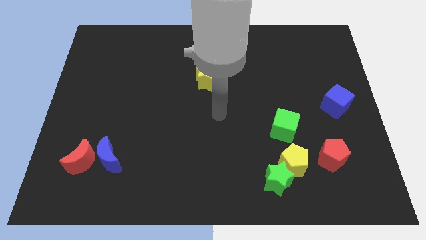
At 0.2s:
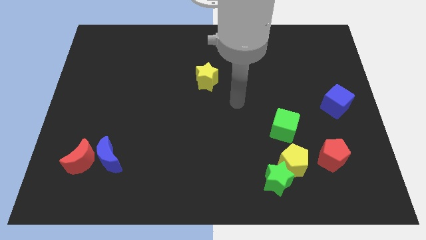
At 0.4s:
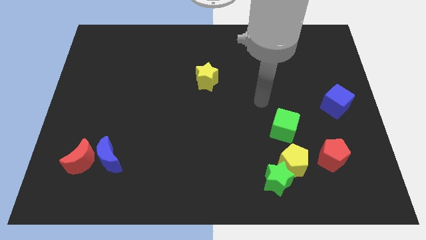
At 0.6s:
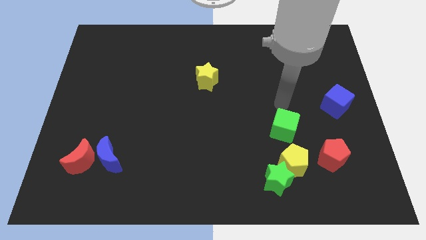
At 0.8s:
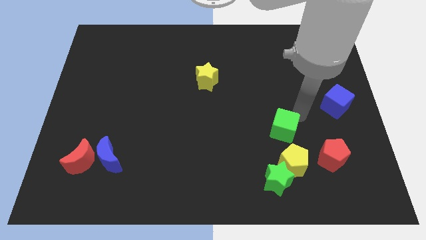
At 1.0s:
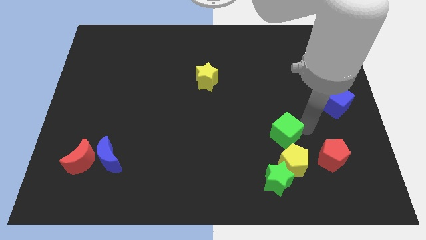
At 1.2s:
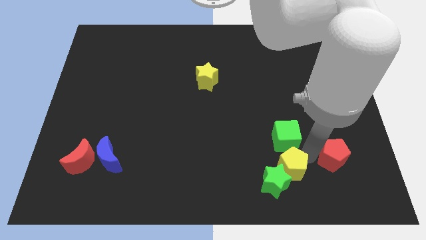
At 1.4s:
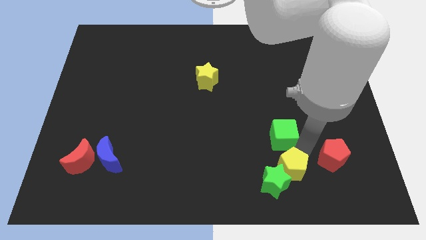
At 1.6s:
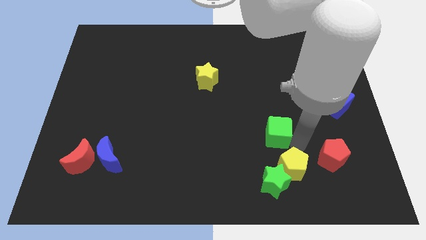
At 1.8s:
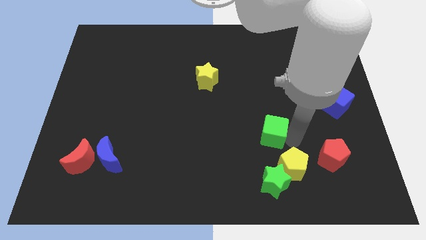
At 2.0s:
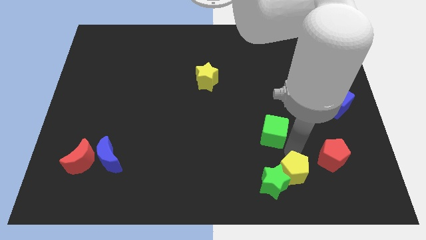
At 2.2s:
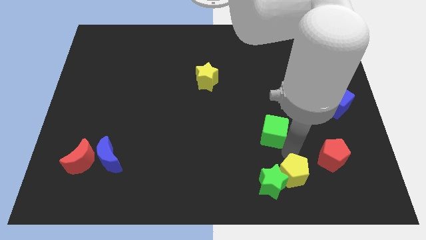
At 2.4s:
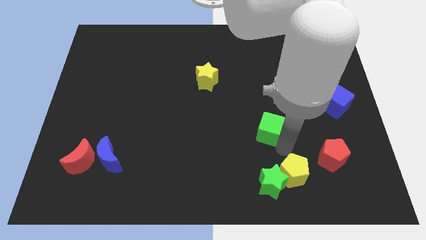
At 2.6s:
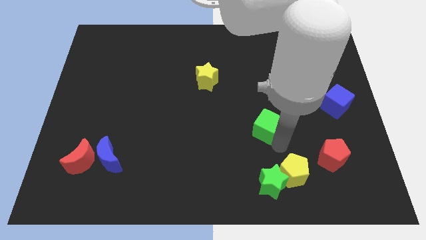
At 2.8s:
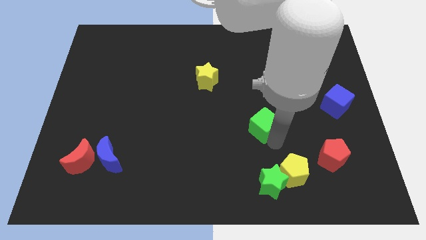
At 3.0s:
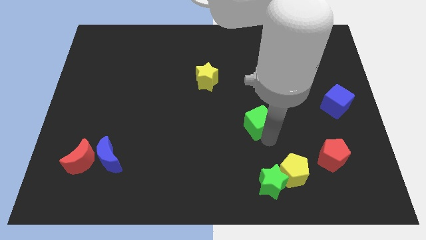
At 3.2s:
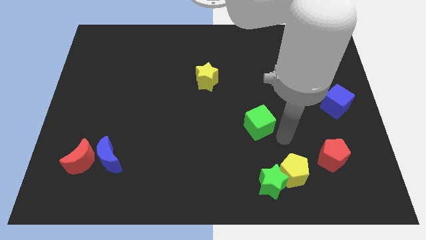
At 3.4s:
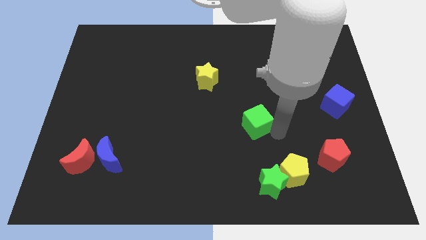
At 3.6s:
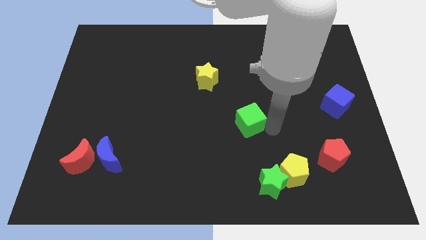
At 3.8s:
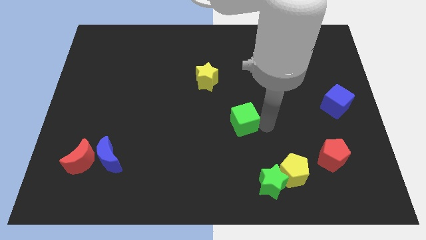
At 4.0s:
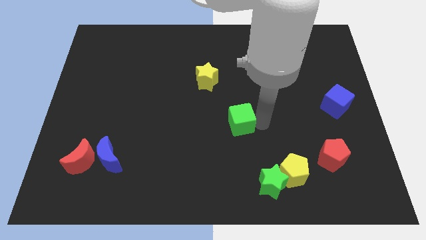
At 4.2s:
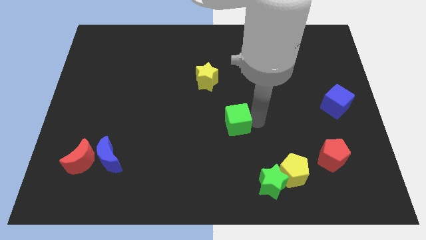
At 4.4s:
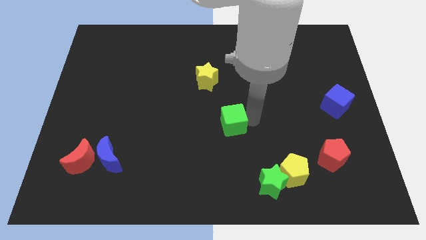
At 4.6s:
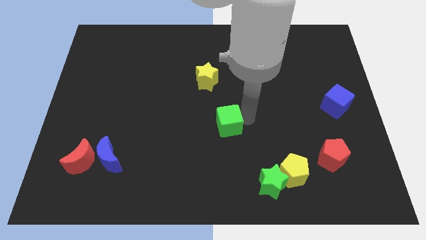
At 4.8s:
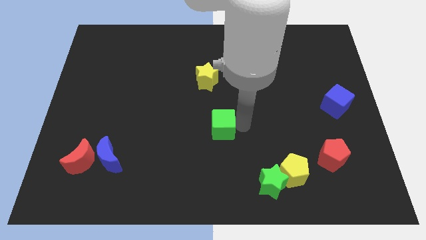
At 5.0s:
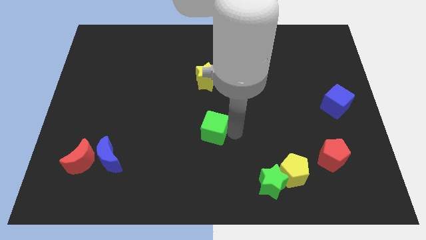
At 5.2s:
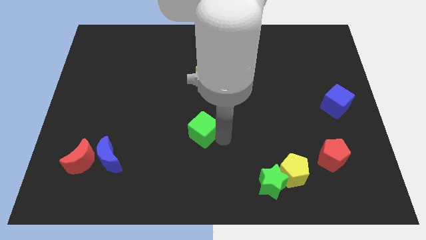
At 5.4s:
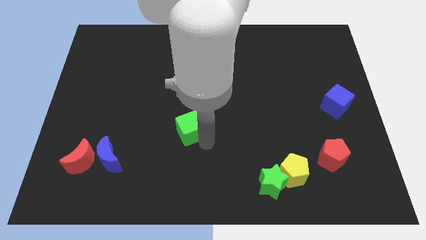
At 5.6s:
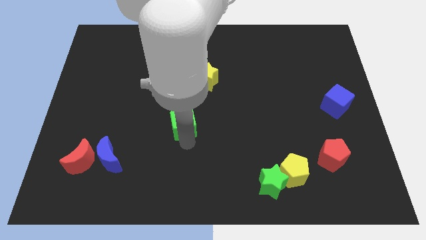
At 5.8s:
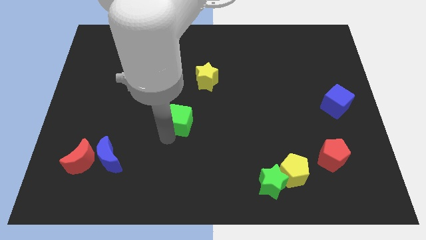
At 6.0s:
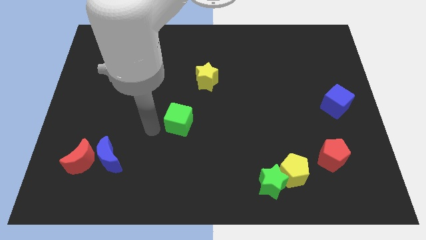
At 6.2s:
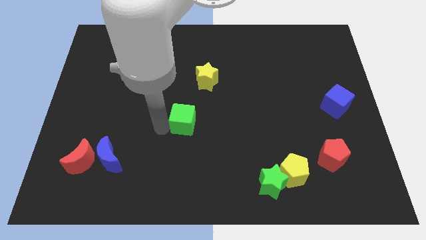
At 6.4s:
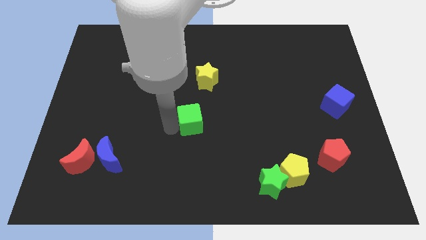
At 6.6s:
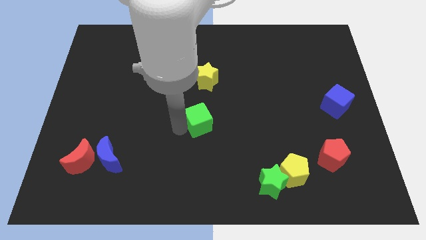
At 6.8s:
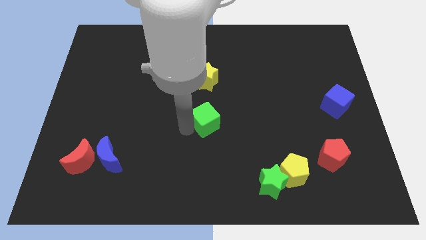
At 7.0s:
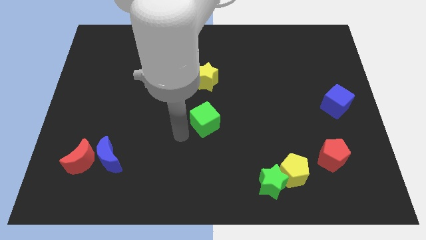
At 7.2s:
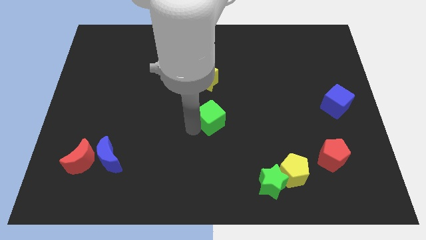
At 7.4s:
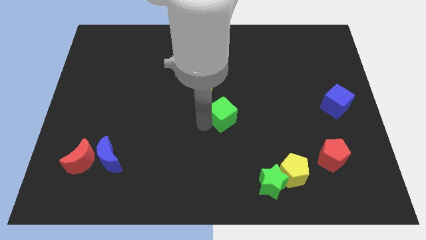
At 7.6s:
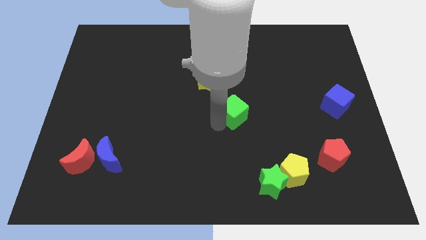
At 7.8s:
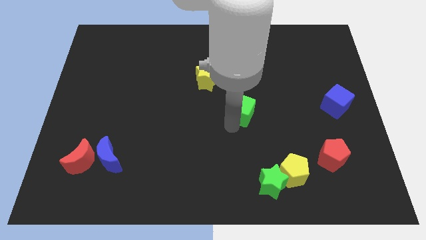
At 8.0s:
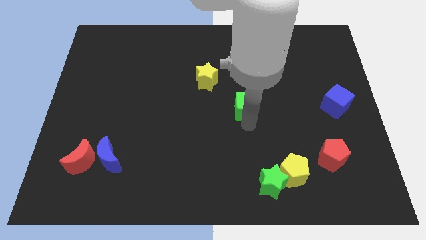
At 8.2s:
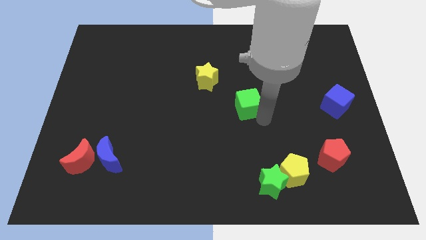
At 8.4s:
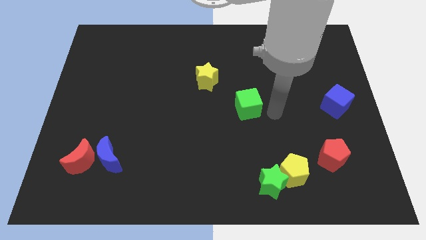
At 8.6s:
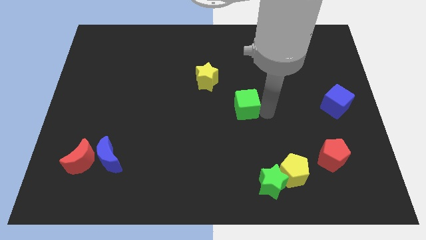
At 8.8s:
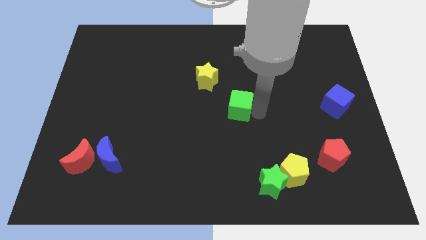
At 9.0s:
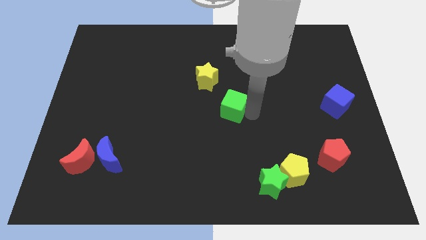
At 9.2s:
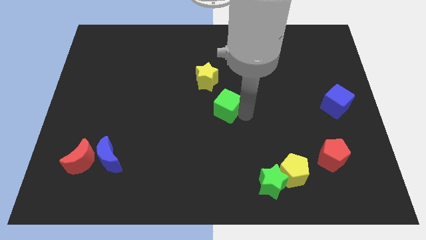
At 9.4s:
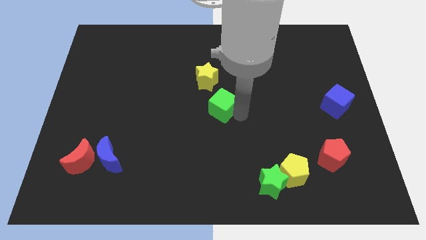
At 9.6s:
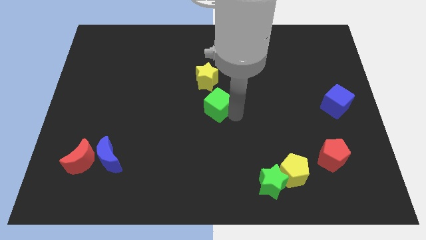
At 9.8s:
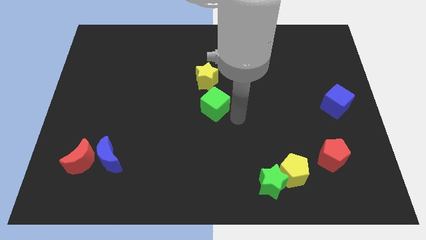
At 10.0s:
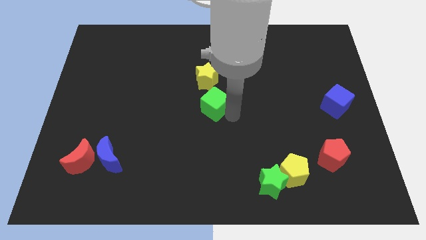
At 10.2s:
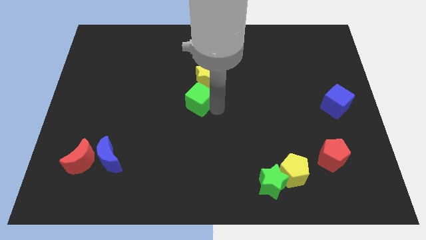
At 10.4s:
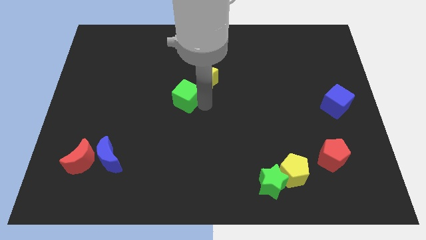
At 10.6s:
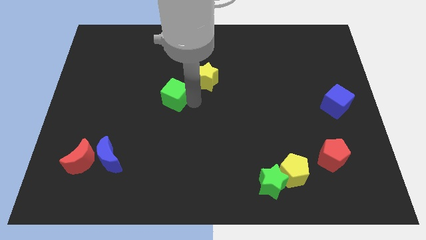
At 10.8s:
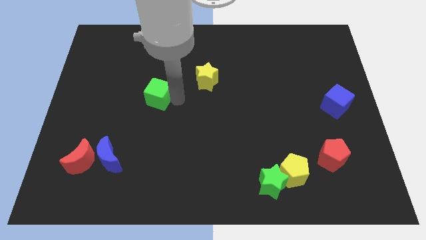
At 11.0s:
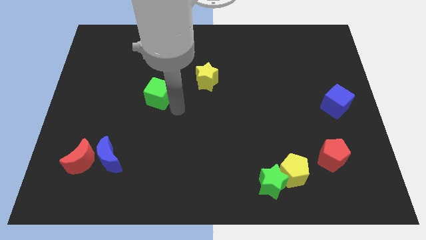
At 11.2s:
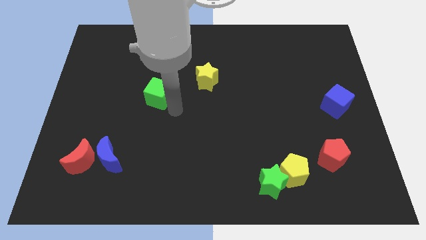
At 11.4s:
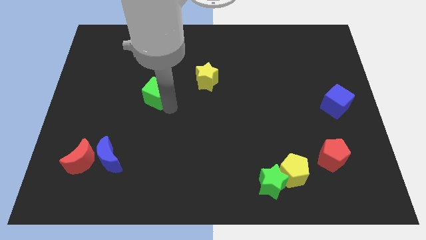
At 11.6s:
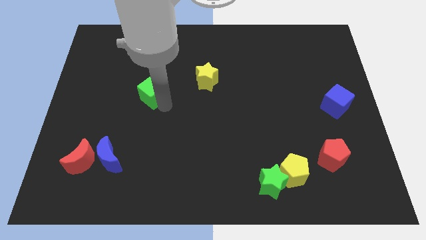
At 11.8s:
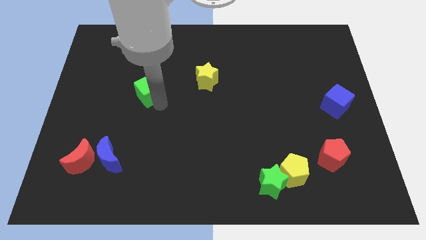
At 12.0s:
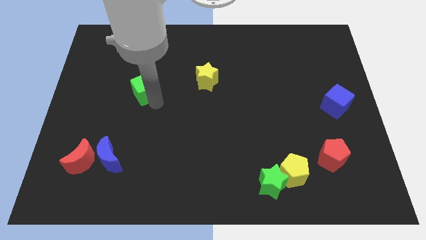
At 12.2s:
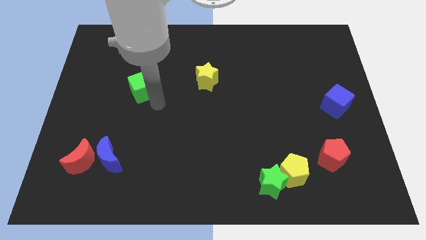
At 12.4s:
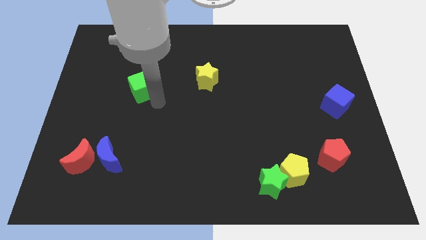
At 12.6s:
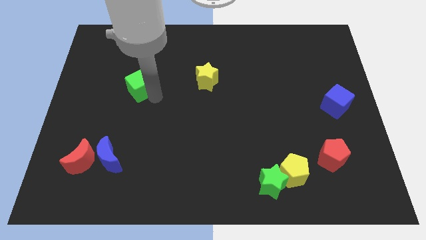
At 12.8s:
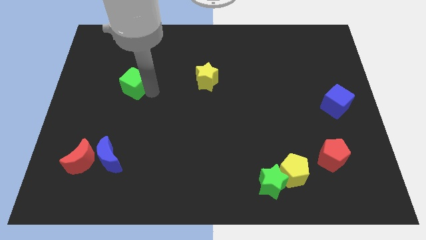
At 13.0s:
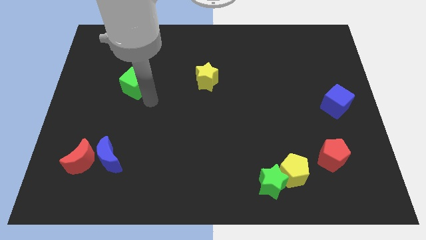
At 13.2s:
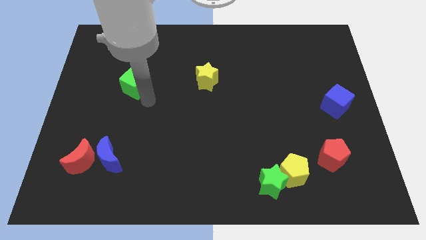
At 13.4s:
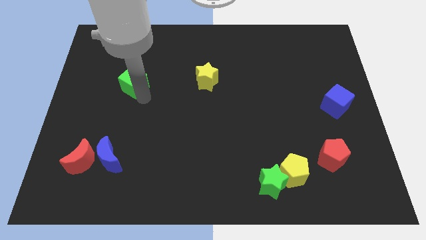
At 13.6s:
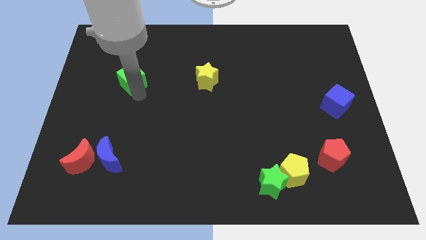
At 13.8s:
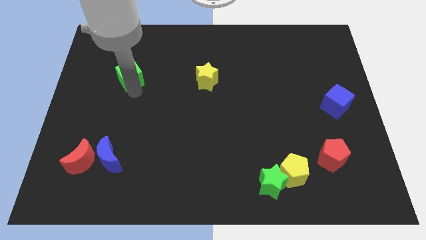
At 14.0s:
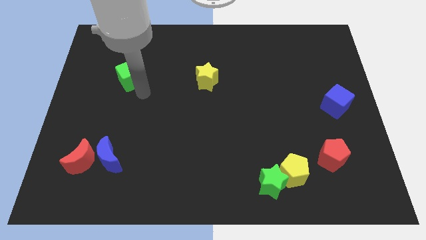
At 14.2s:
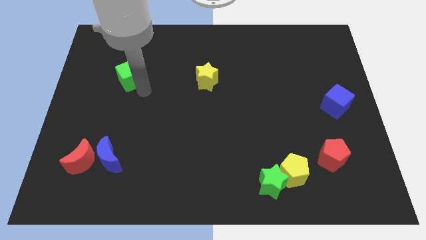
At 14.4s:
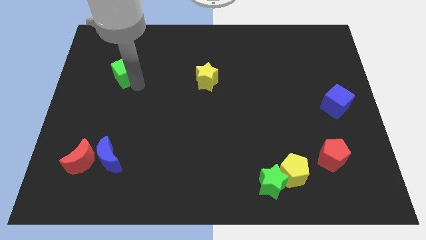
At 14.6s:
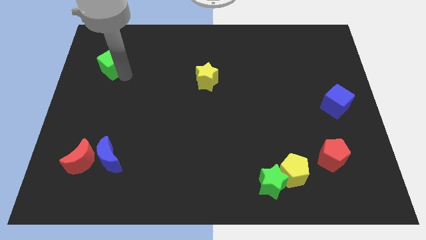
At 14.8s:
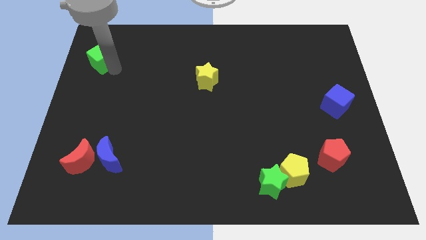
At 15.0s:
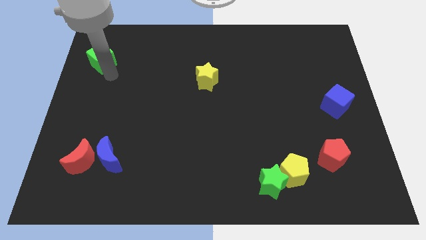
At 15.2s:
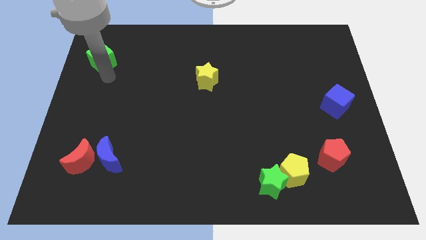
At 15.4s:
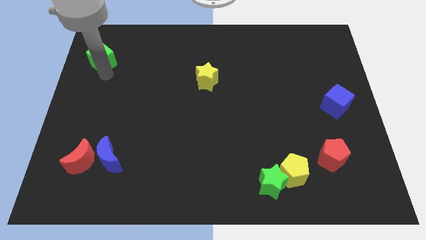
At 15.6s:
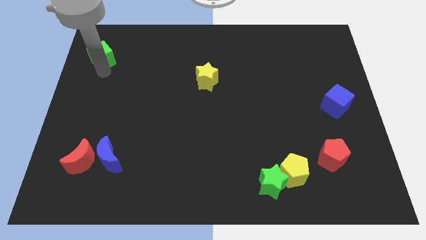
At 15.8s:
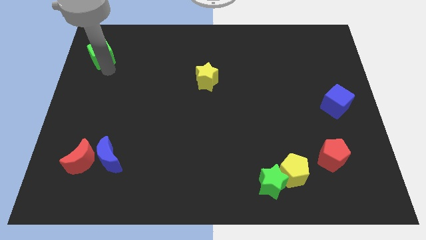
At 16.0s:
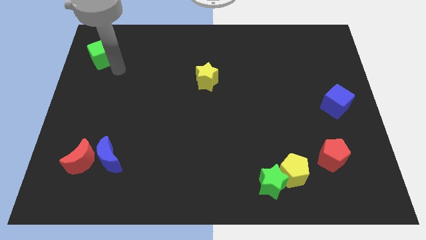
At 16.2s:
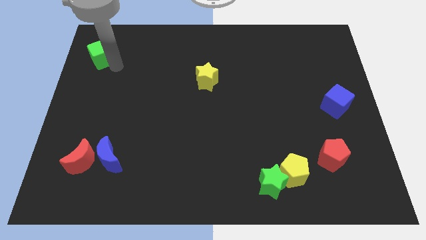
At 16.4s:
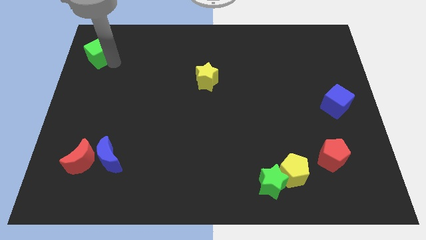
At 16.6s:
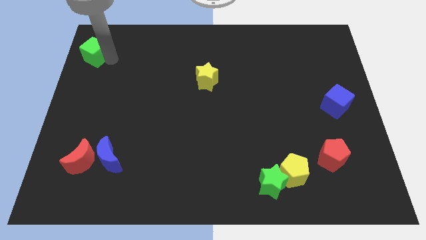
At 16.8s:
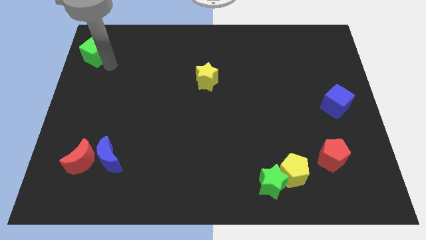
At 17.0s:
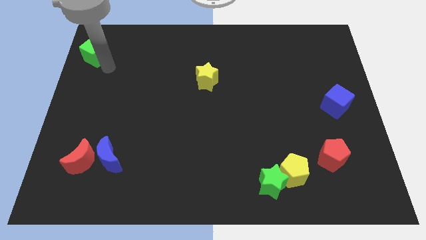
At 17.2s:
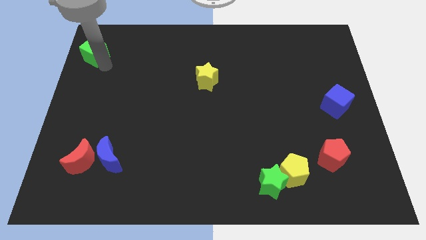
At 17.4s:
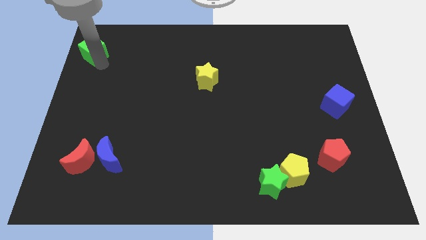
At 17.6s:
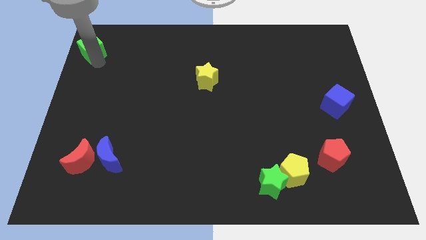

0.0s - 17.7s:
put the green cube to the top left
